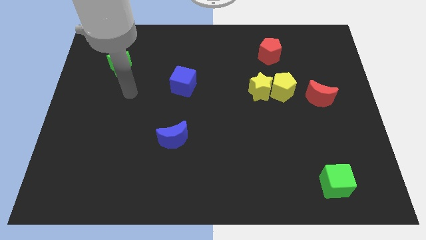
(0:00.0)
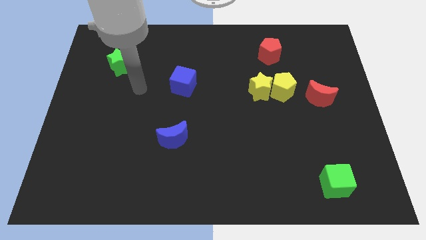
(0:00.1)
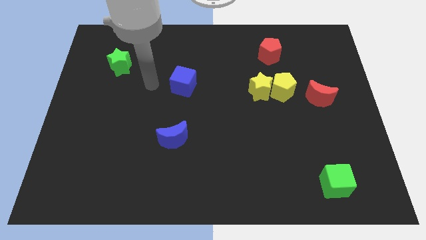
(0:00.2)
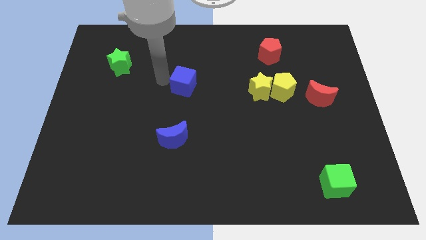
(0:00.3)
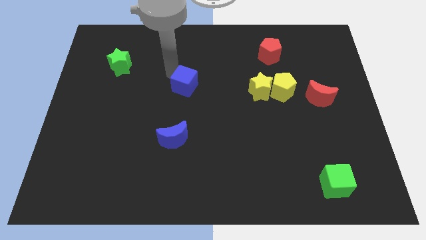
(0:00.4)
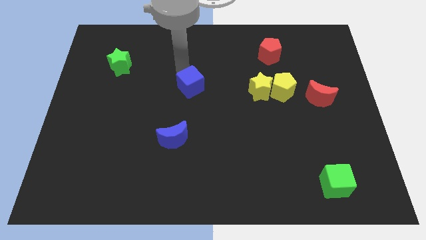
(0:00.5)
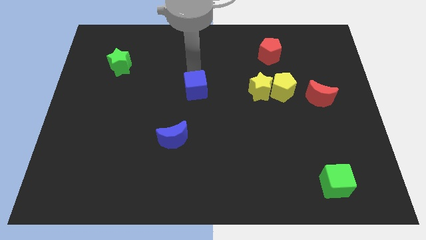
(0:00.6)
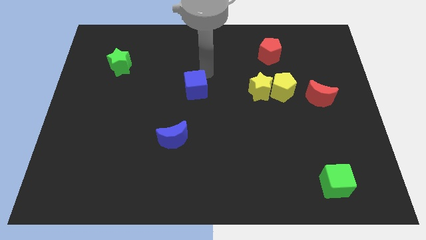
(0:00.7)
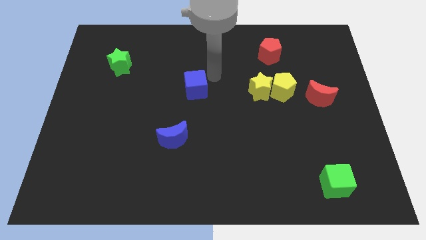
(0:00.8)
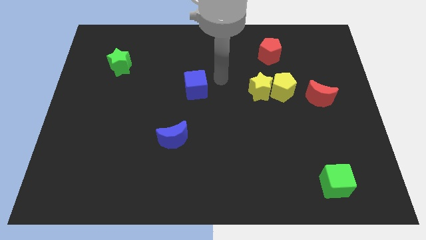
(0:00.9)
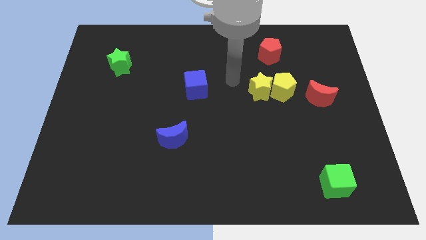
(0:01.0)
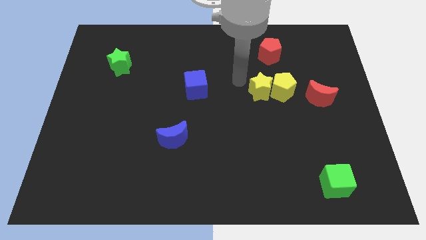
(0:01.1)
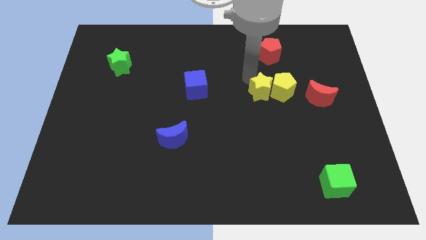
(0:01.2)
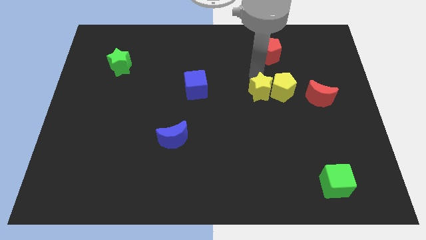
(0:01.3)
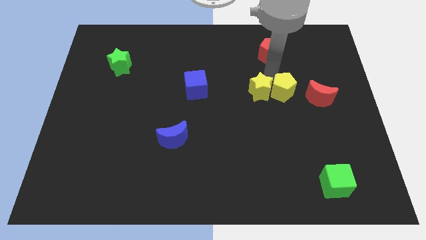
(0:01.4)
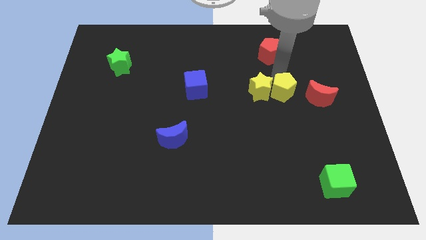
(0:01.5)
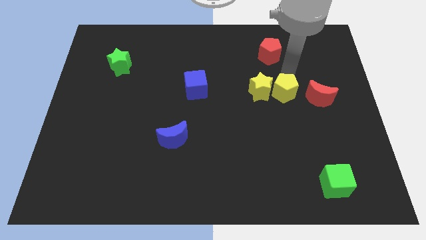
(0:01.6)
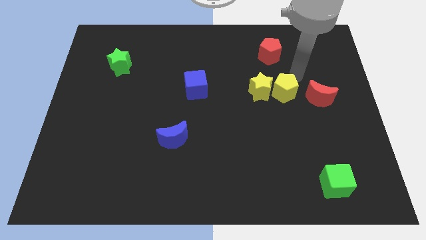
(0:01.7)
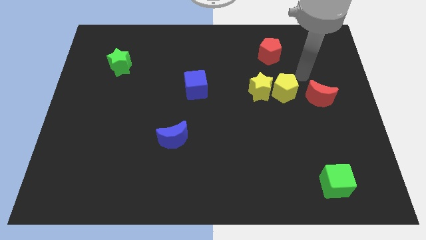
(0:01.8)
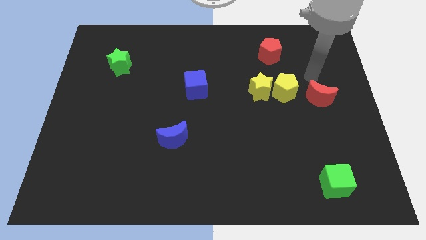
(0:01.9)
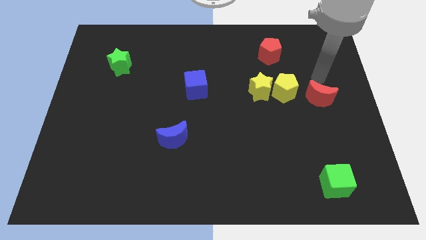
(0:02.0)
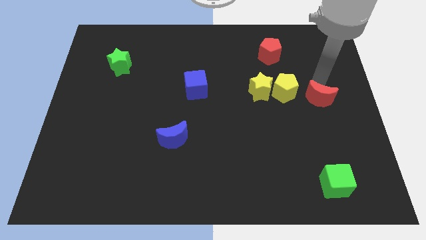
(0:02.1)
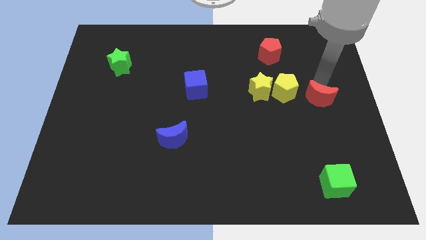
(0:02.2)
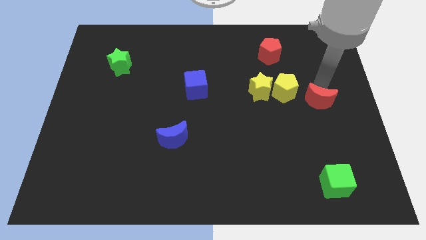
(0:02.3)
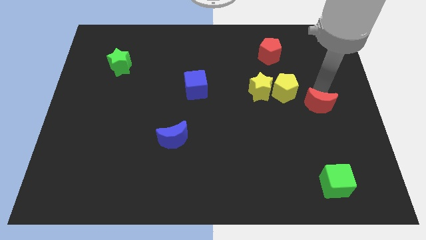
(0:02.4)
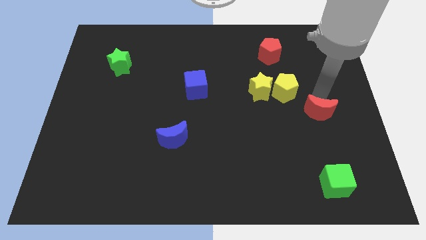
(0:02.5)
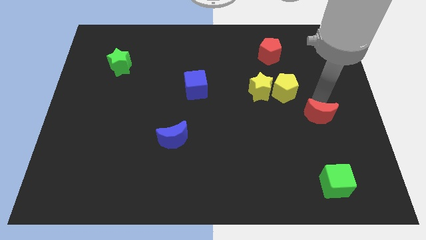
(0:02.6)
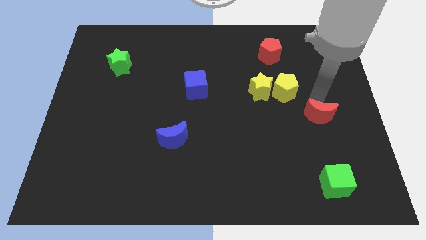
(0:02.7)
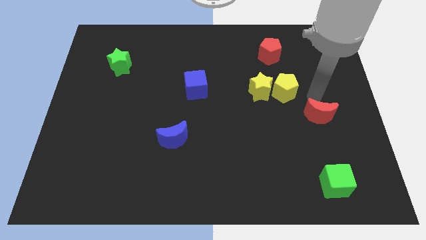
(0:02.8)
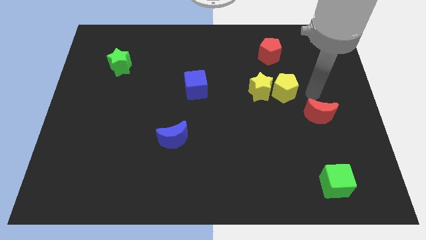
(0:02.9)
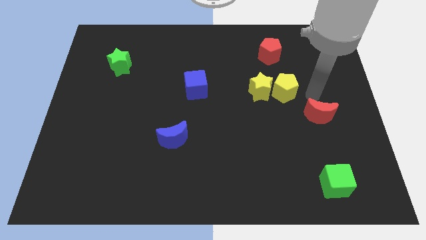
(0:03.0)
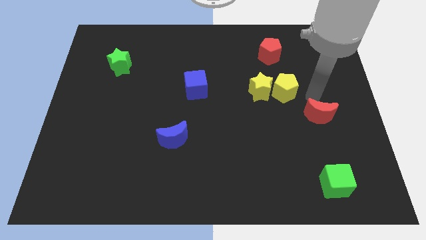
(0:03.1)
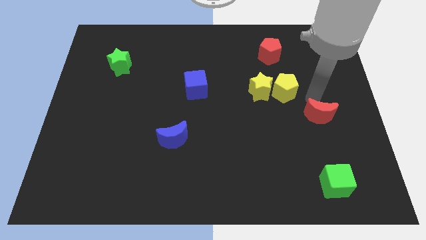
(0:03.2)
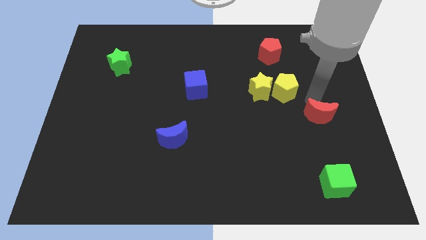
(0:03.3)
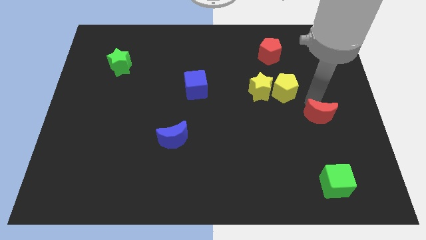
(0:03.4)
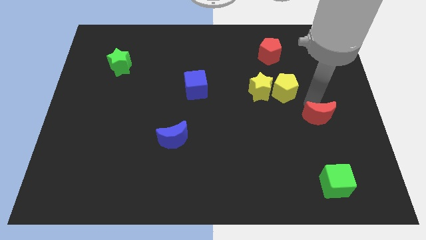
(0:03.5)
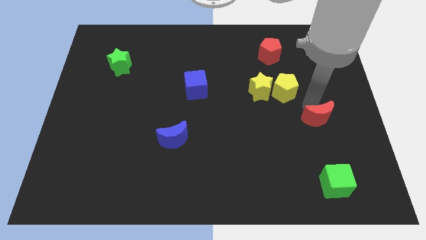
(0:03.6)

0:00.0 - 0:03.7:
put the red moon to the top of the green cube

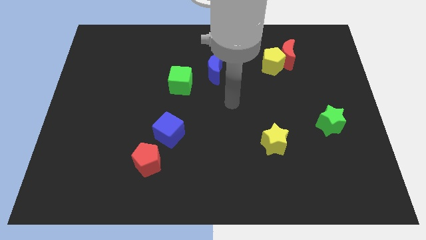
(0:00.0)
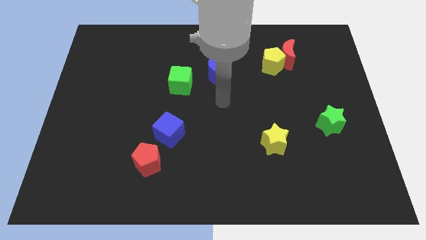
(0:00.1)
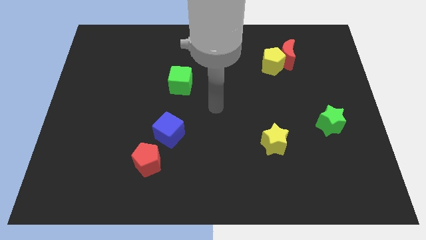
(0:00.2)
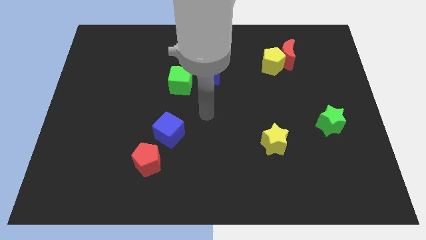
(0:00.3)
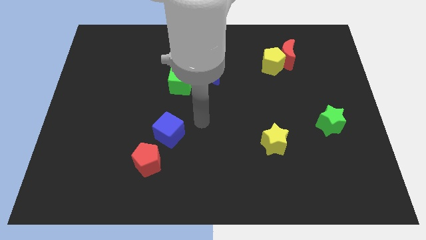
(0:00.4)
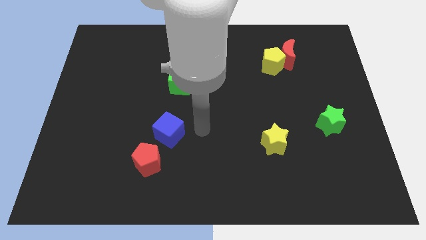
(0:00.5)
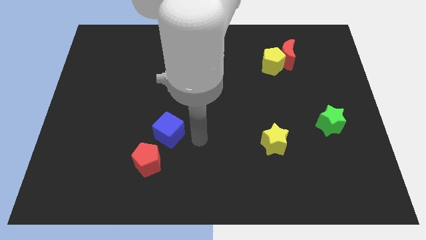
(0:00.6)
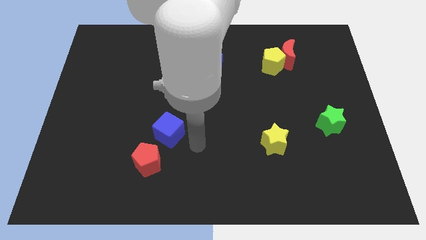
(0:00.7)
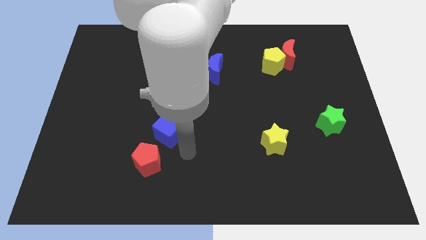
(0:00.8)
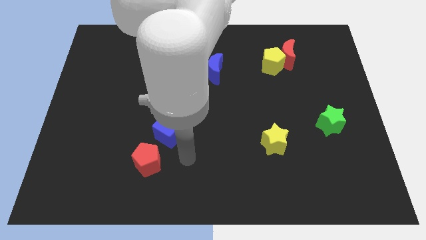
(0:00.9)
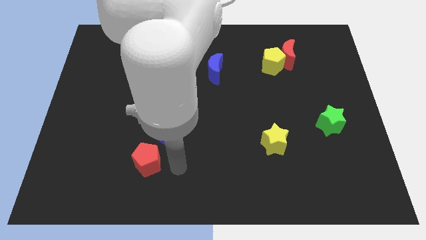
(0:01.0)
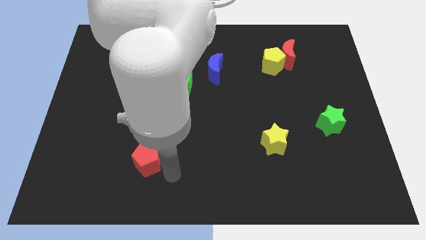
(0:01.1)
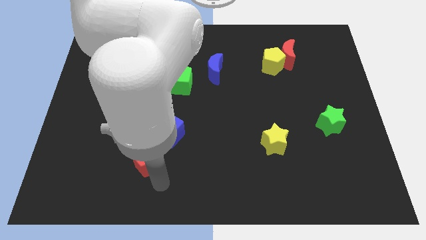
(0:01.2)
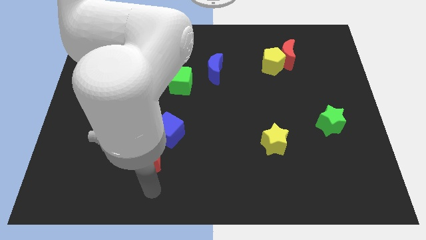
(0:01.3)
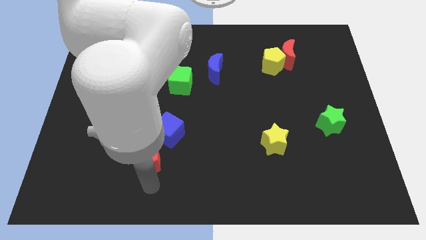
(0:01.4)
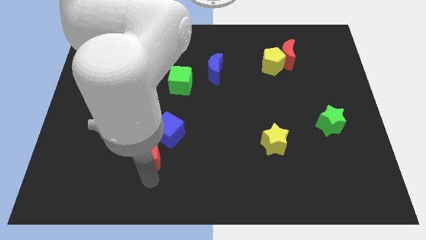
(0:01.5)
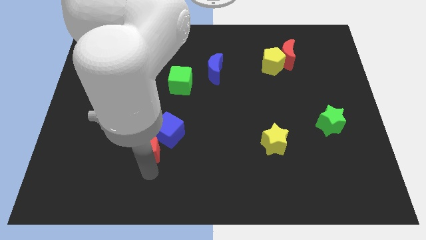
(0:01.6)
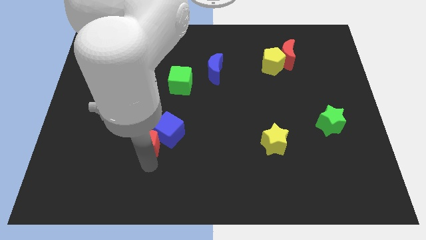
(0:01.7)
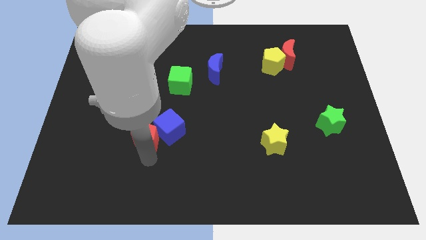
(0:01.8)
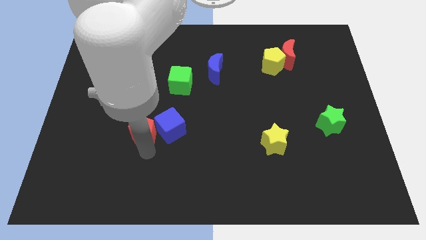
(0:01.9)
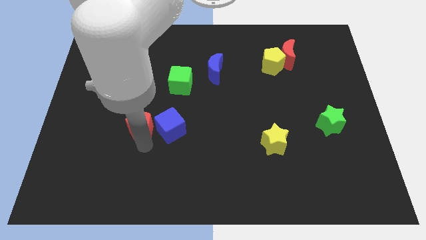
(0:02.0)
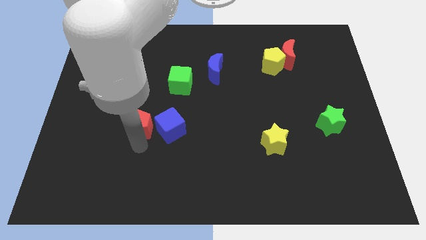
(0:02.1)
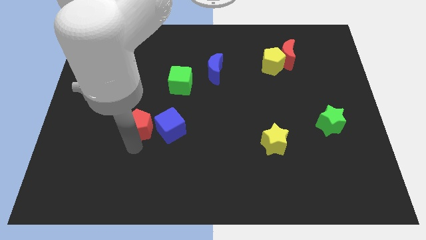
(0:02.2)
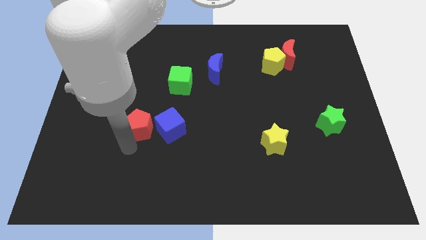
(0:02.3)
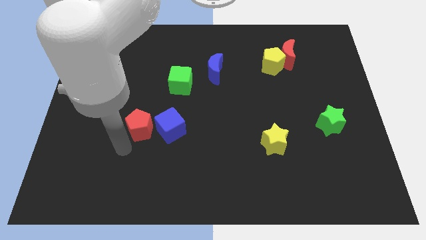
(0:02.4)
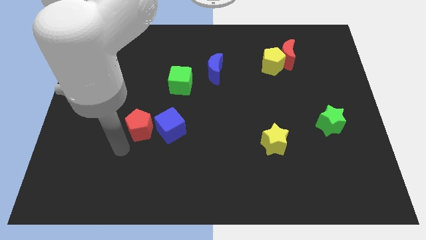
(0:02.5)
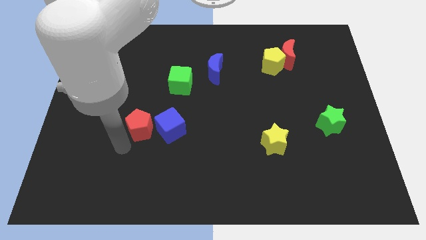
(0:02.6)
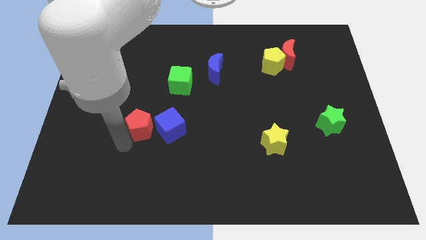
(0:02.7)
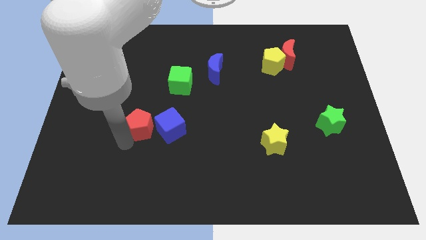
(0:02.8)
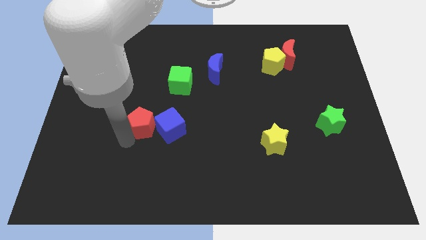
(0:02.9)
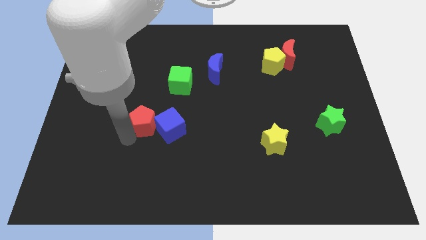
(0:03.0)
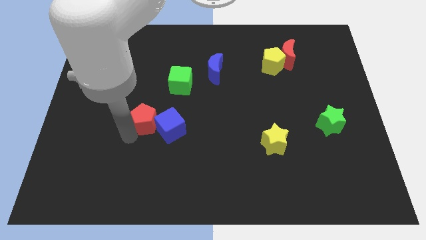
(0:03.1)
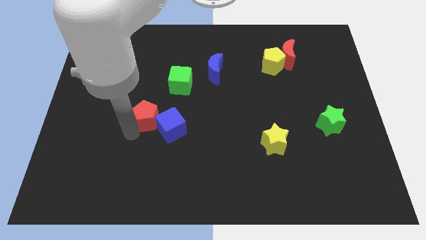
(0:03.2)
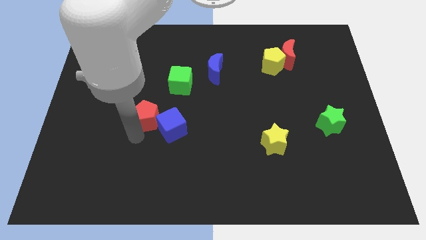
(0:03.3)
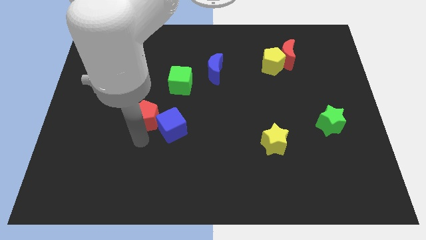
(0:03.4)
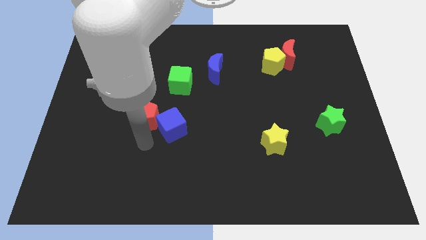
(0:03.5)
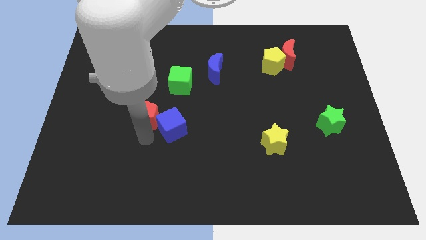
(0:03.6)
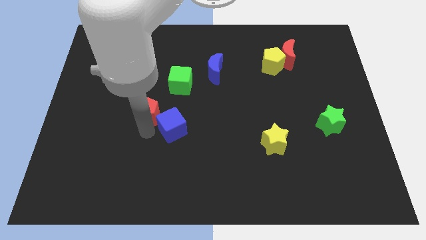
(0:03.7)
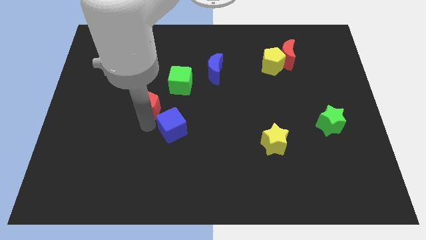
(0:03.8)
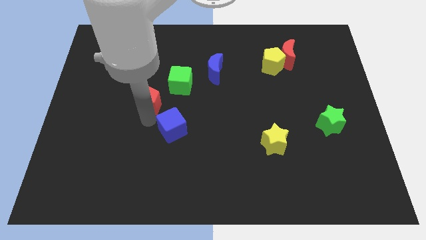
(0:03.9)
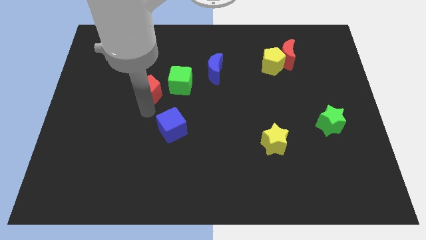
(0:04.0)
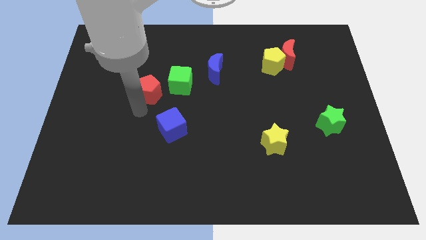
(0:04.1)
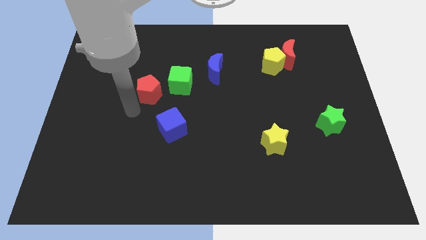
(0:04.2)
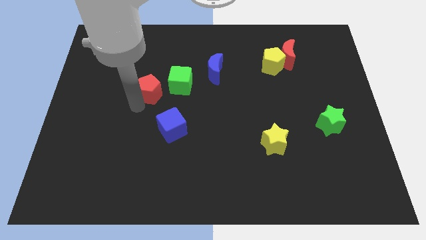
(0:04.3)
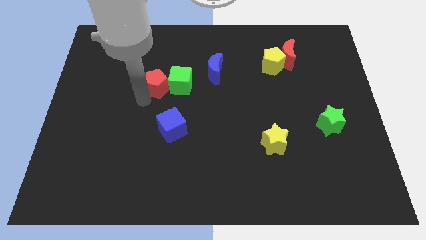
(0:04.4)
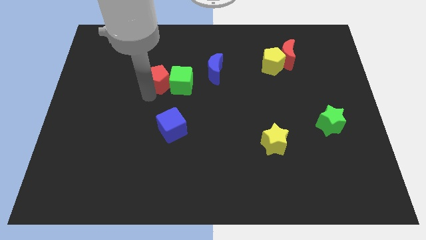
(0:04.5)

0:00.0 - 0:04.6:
move the red pentagon just left of the blue moon
